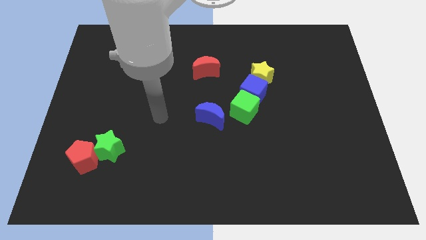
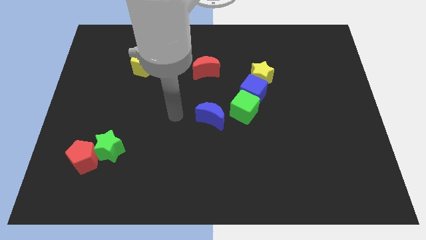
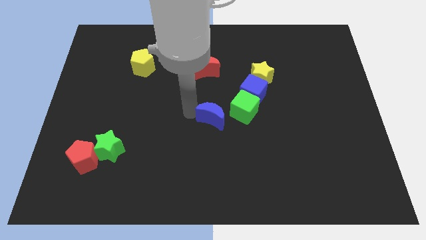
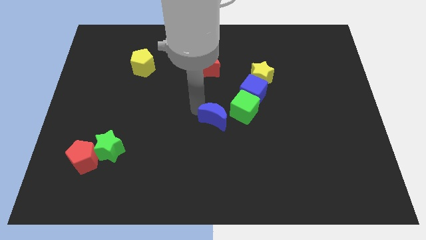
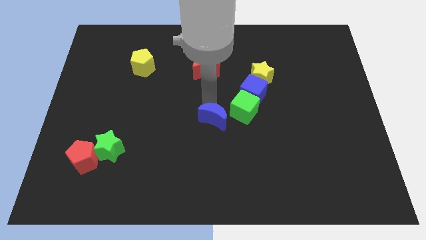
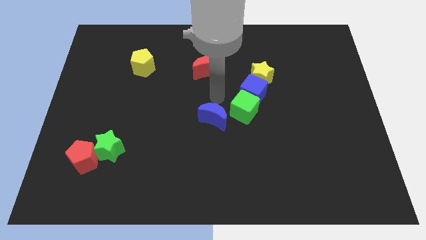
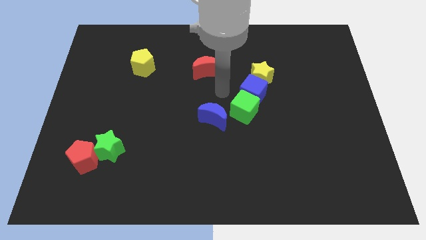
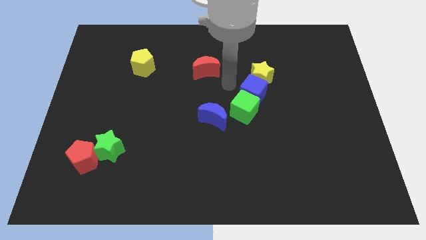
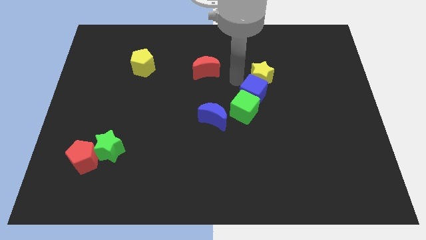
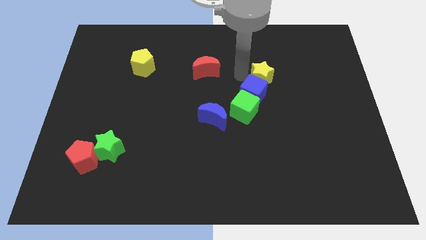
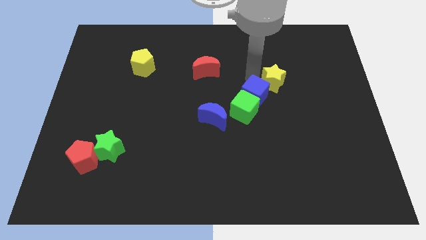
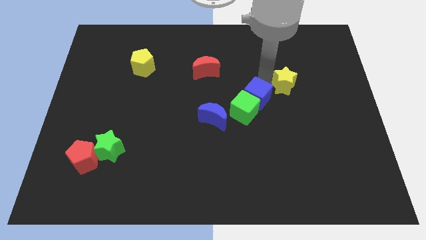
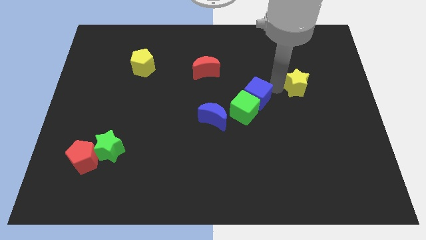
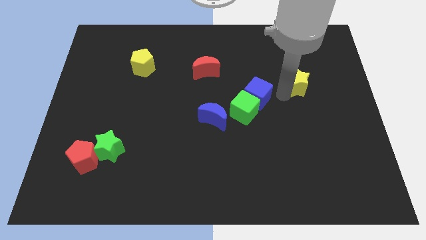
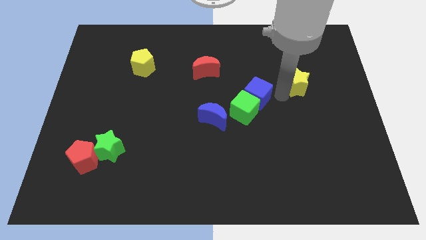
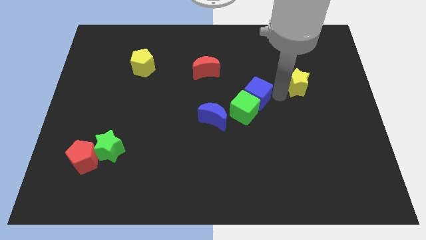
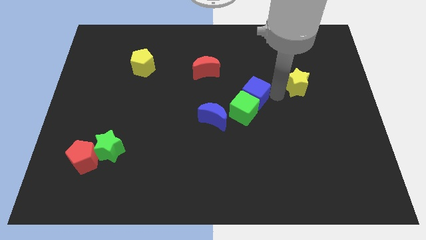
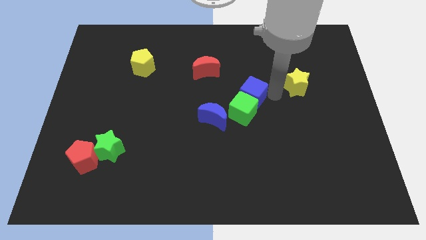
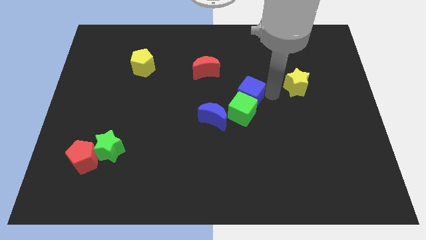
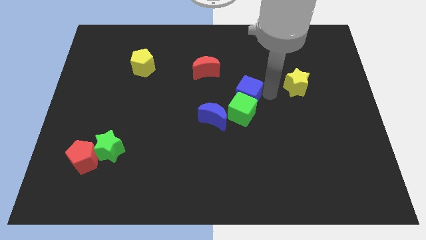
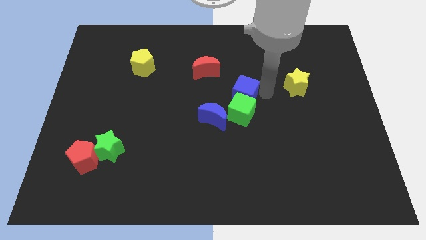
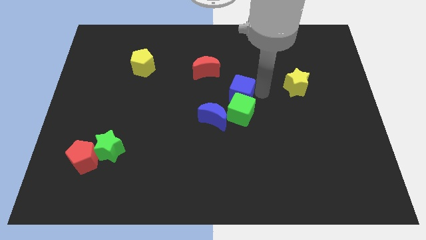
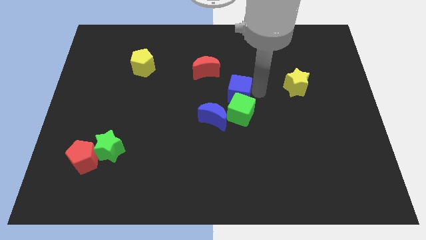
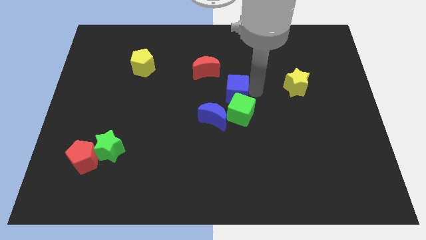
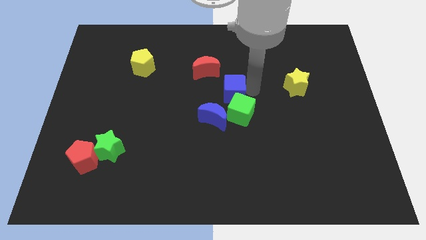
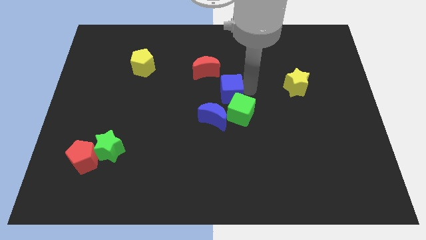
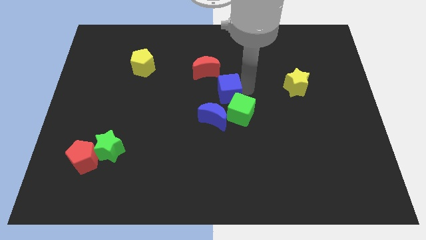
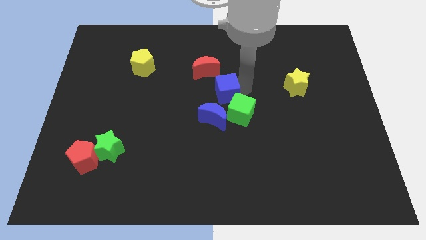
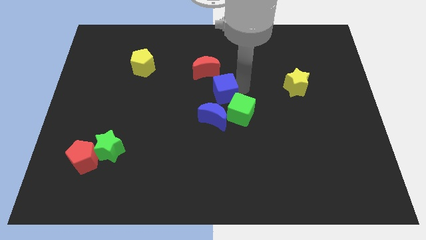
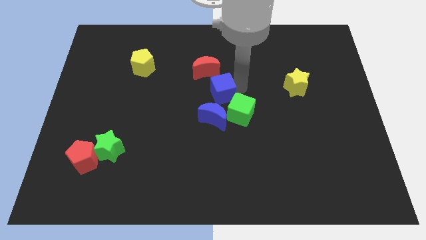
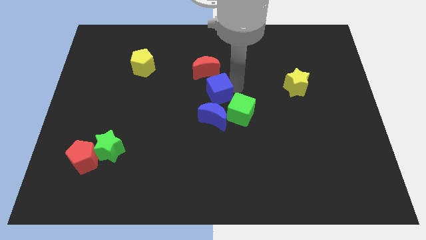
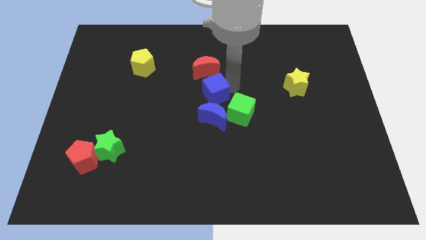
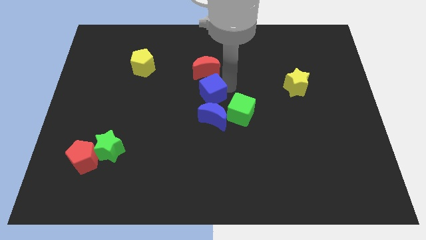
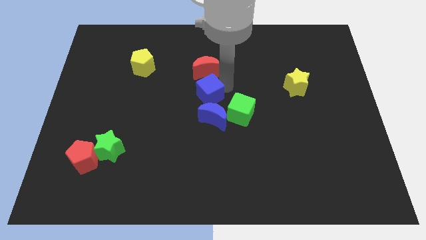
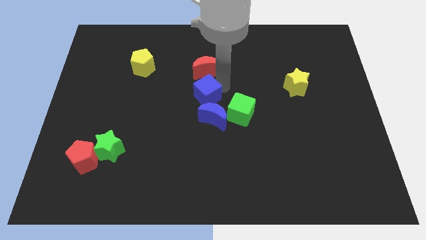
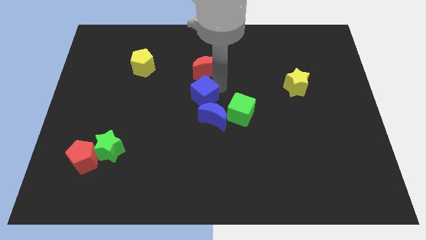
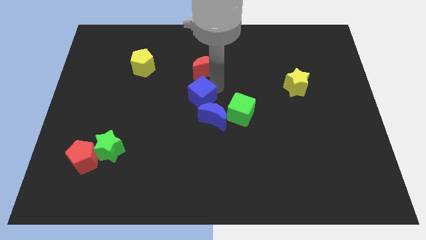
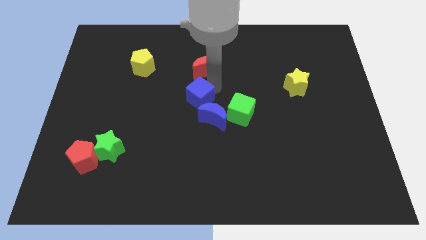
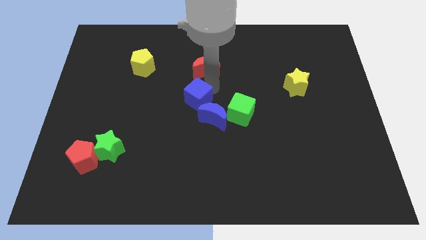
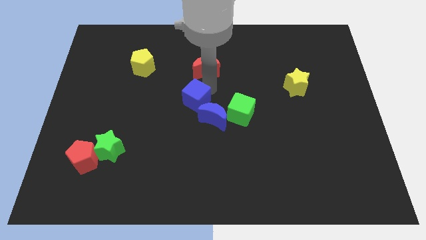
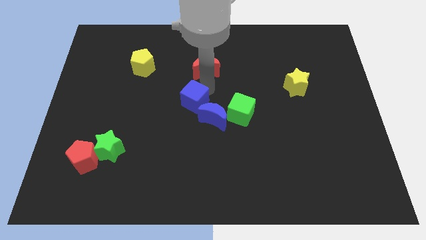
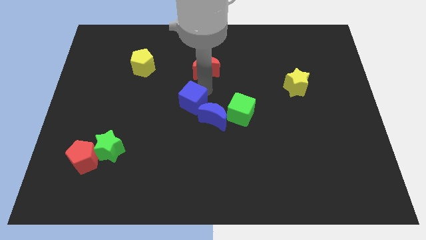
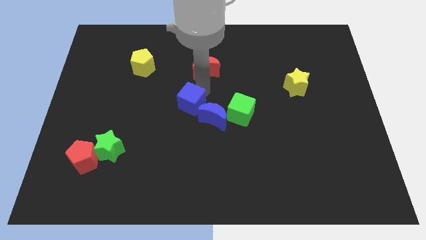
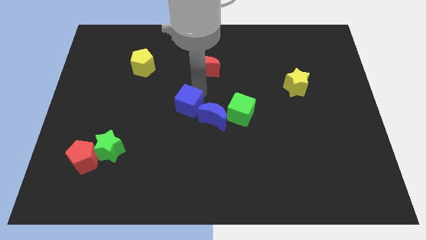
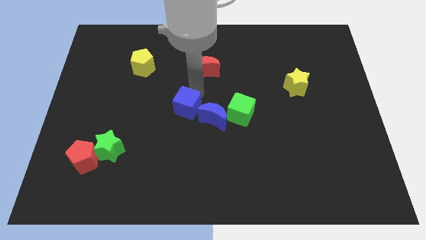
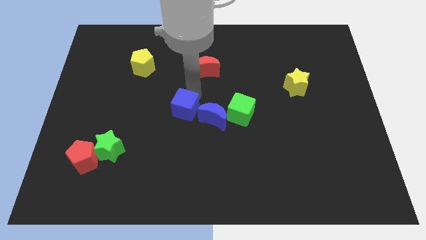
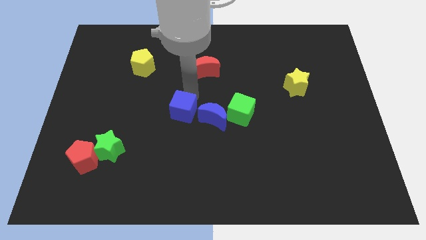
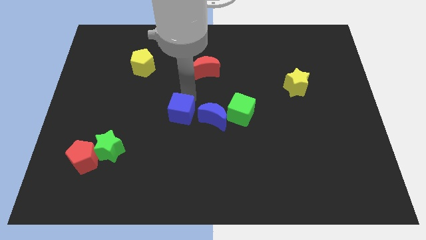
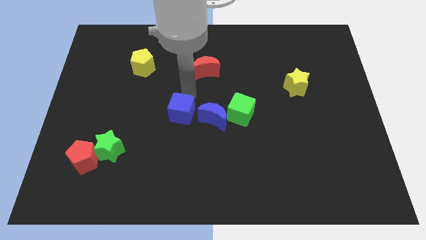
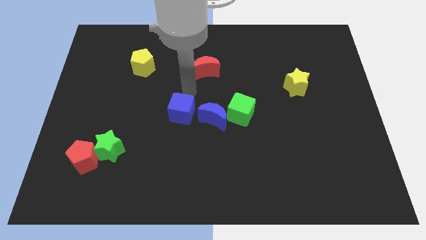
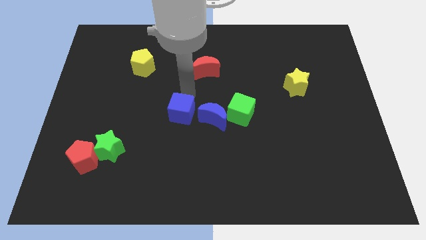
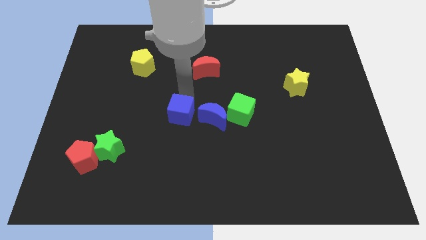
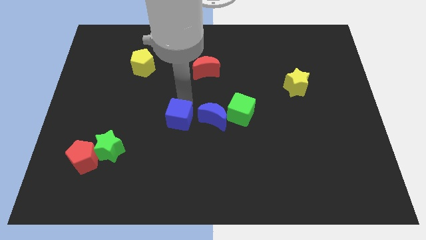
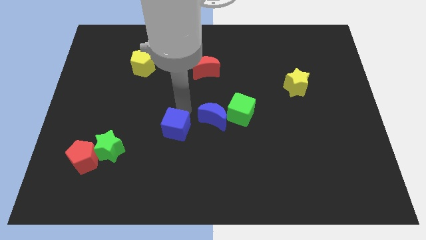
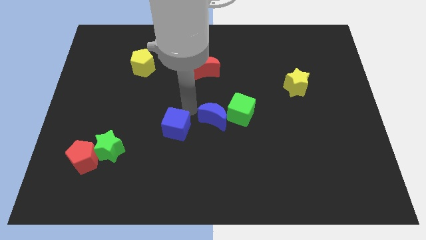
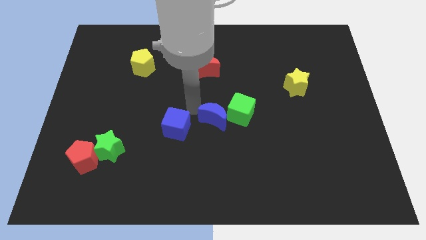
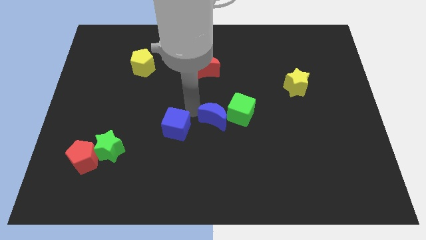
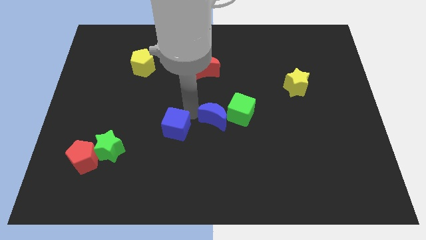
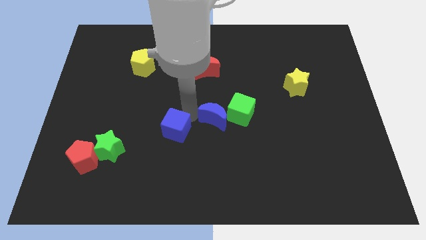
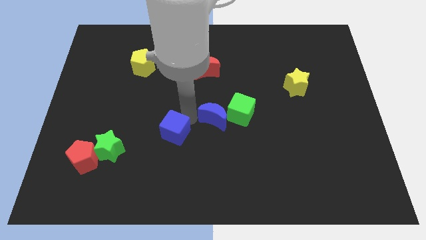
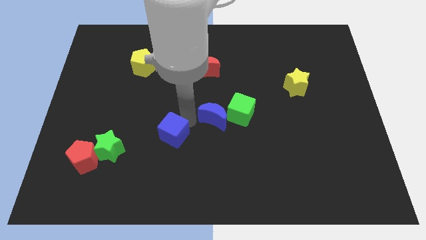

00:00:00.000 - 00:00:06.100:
slide the blue cube down and left diagonally

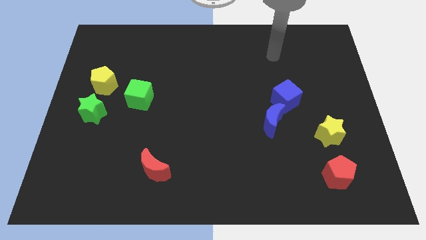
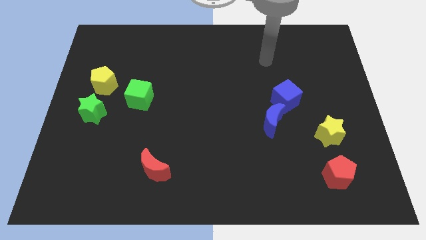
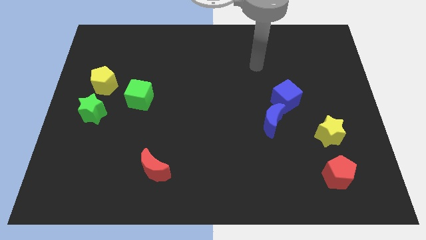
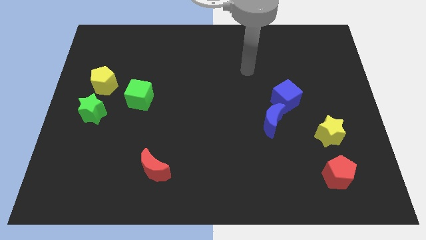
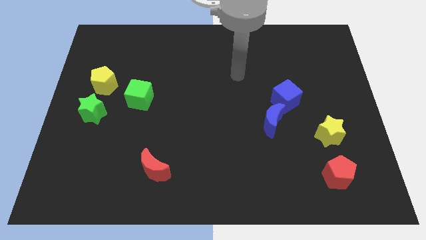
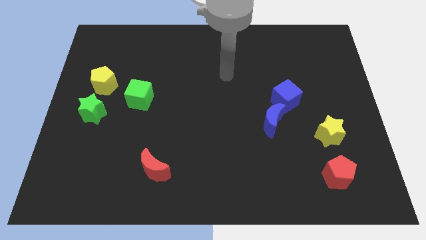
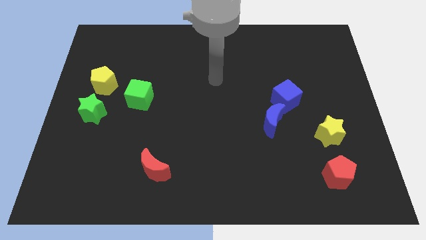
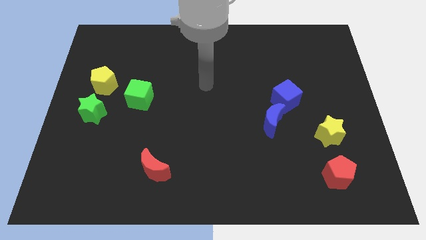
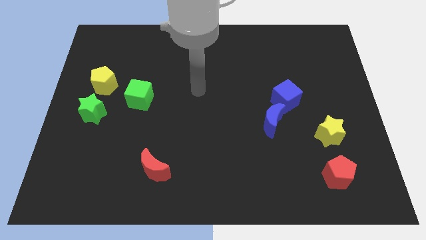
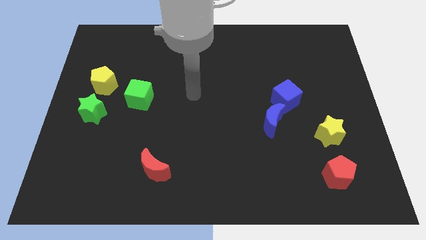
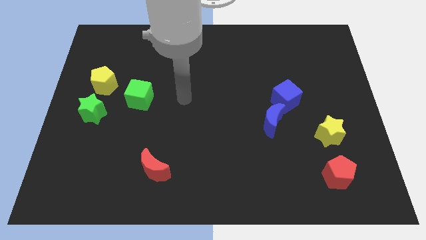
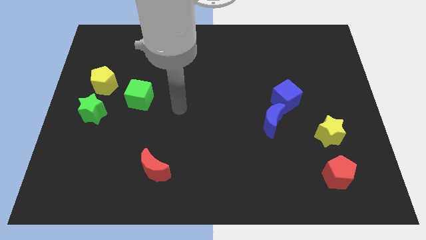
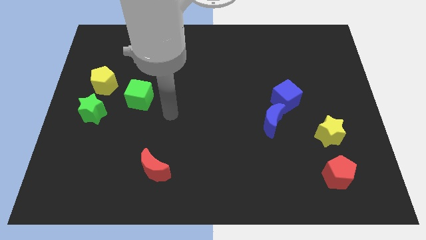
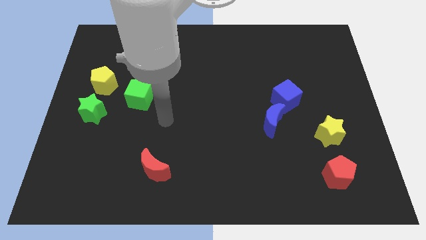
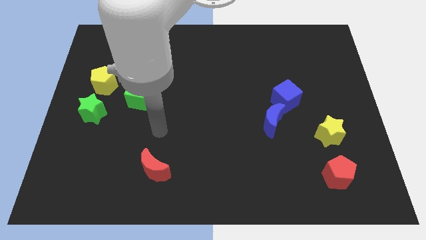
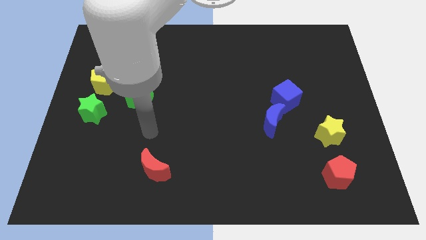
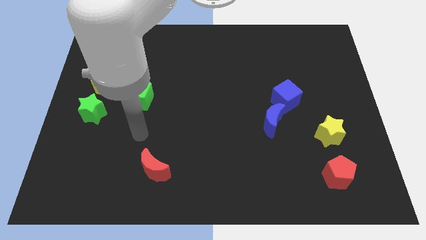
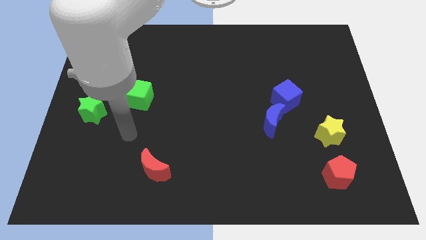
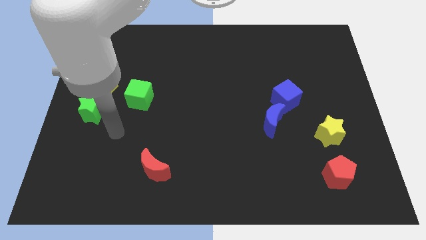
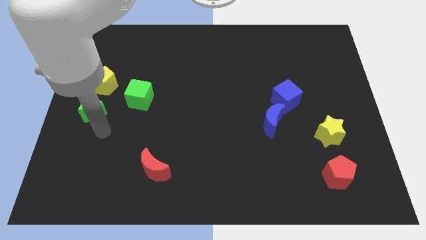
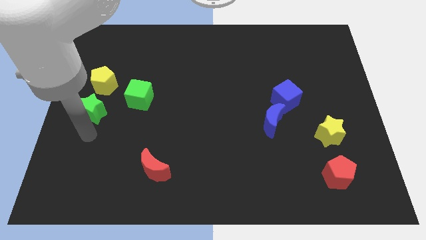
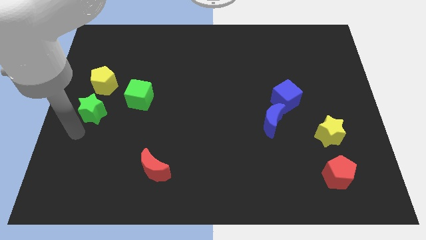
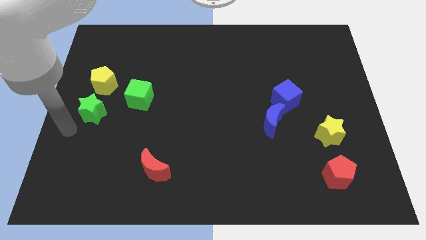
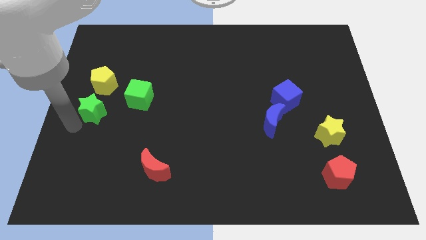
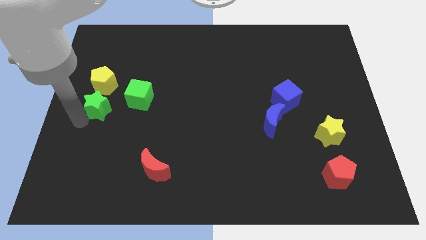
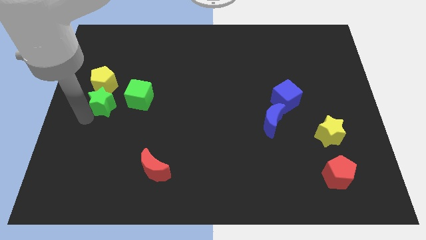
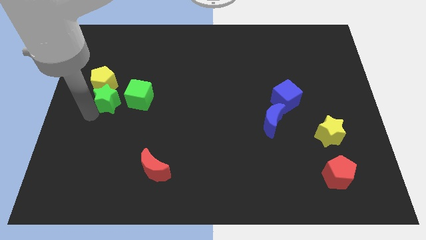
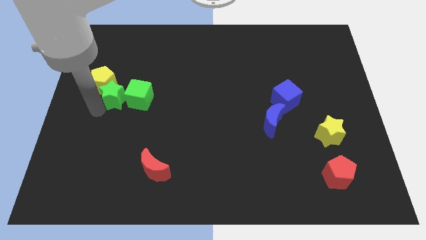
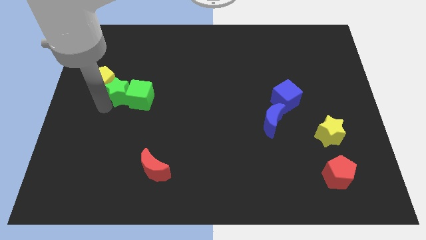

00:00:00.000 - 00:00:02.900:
slightly slide the green star upwards and then right
